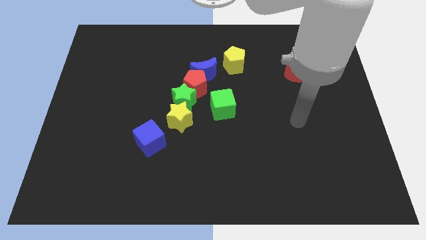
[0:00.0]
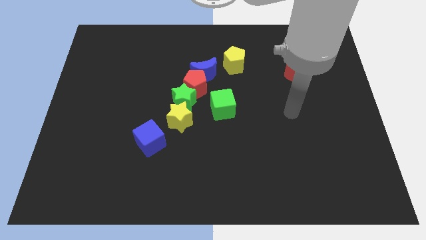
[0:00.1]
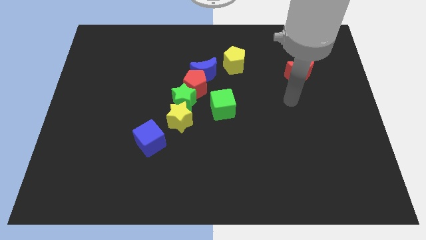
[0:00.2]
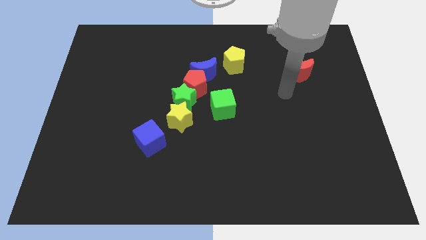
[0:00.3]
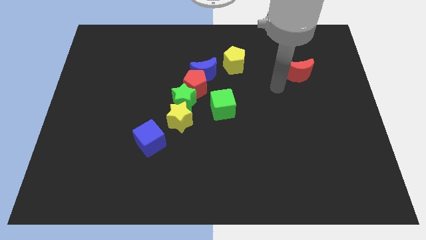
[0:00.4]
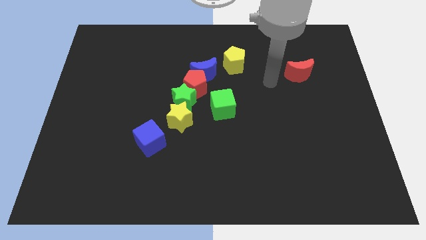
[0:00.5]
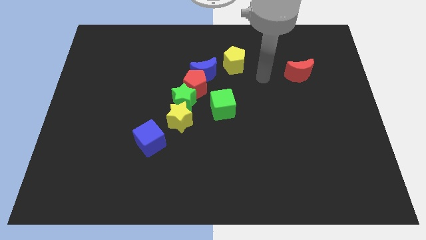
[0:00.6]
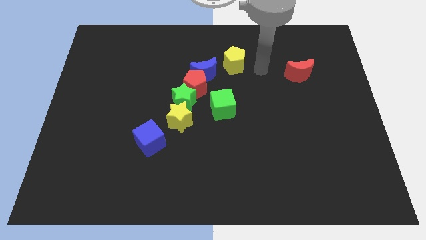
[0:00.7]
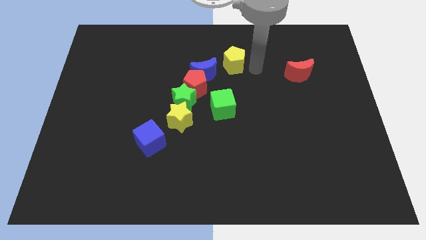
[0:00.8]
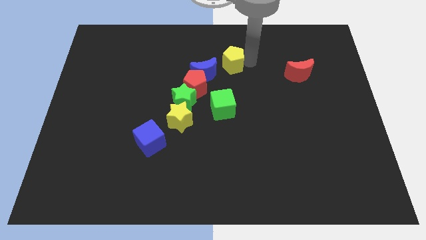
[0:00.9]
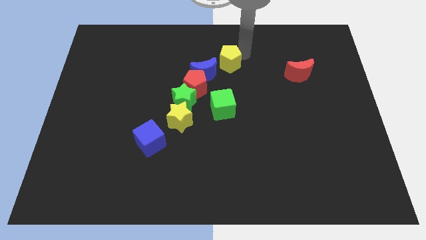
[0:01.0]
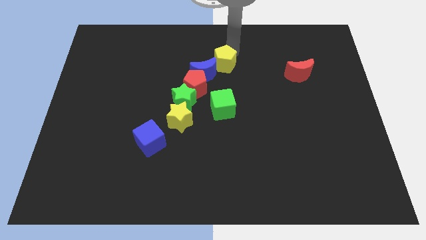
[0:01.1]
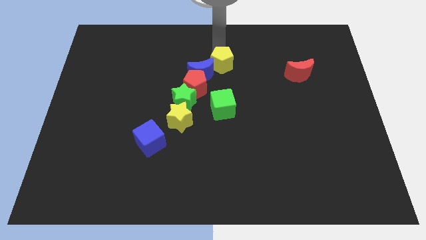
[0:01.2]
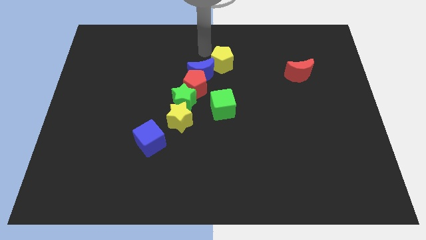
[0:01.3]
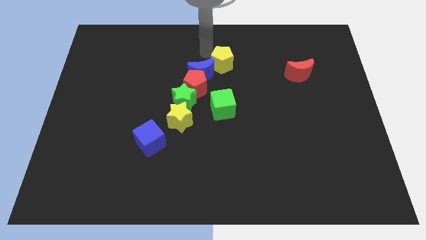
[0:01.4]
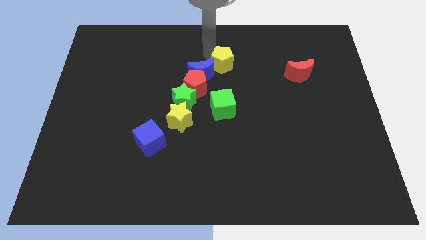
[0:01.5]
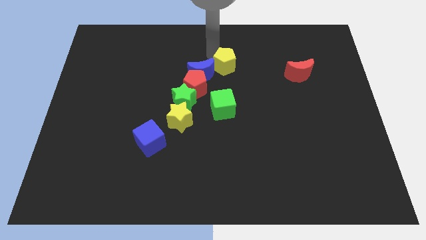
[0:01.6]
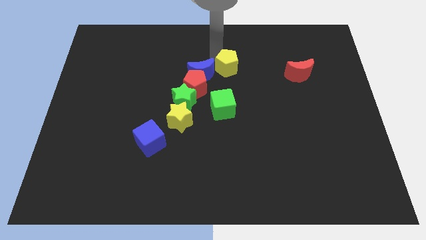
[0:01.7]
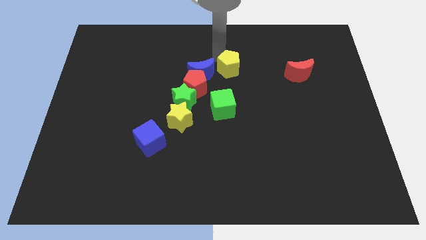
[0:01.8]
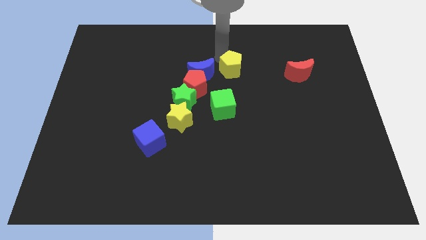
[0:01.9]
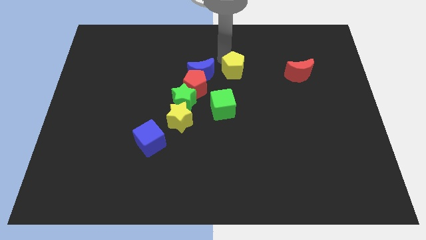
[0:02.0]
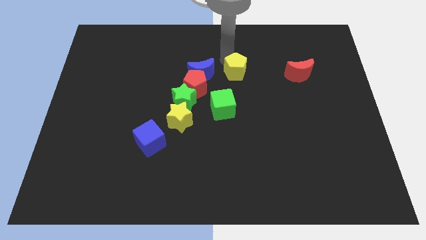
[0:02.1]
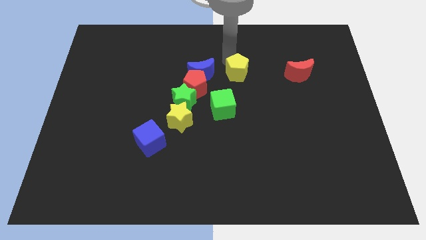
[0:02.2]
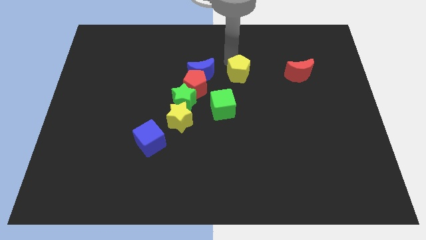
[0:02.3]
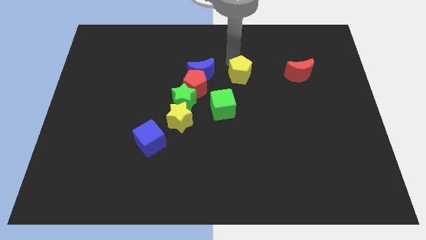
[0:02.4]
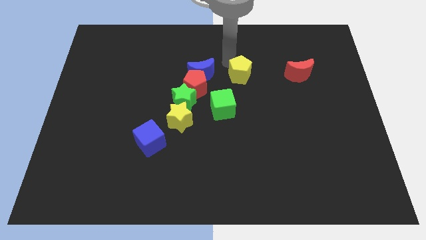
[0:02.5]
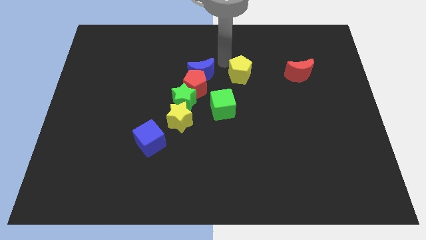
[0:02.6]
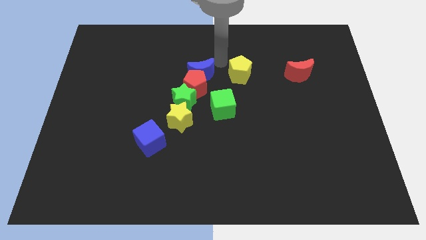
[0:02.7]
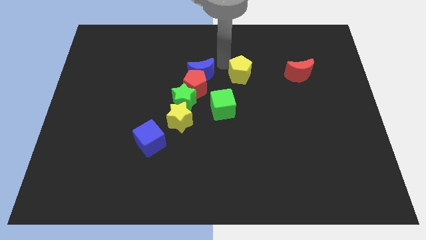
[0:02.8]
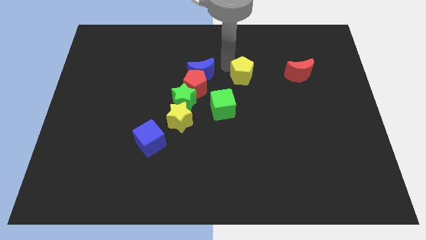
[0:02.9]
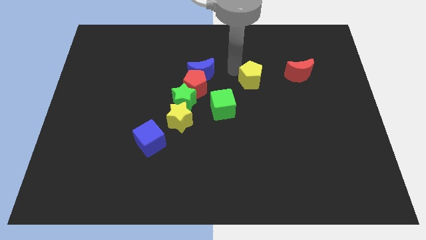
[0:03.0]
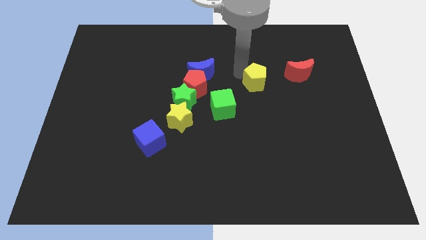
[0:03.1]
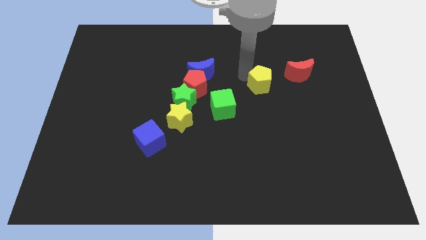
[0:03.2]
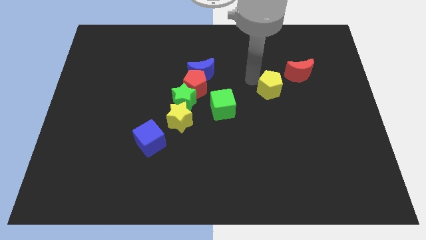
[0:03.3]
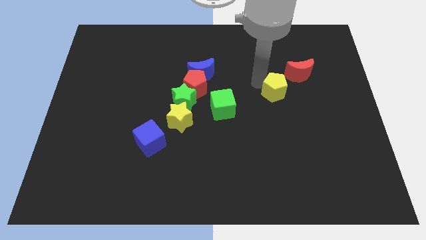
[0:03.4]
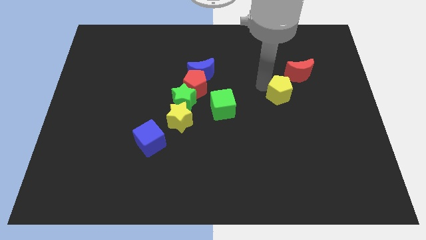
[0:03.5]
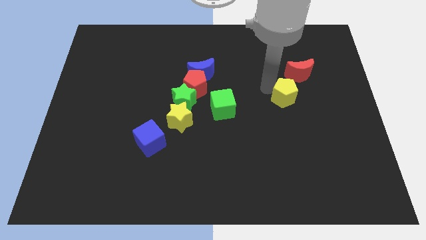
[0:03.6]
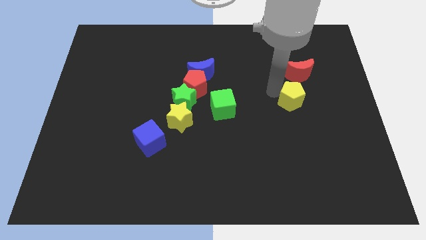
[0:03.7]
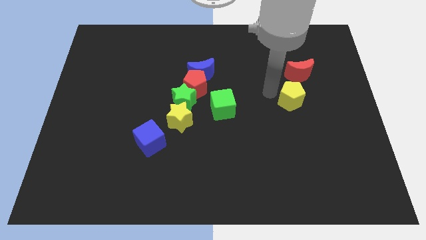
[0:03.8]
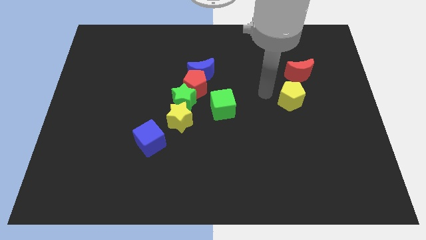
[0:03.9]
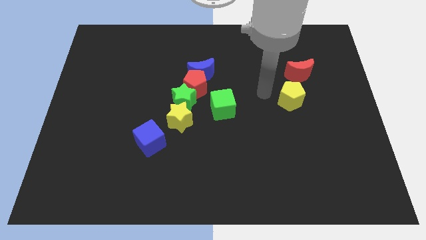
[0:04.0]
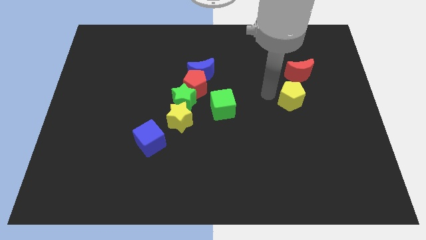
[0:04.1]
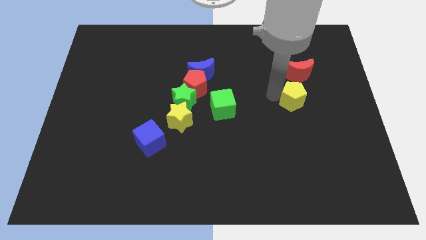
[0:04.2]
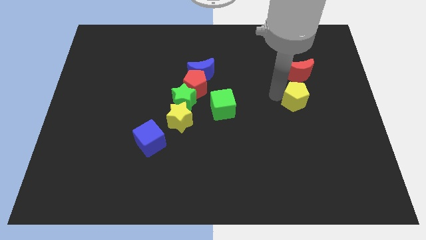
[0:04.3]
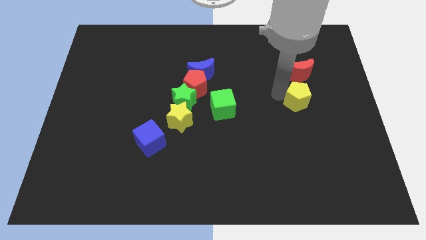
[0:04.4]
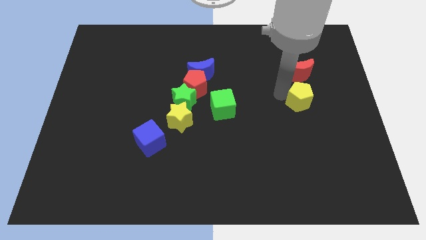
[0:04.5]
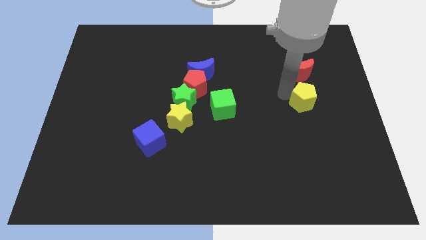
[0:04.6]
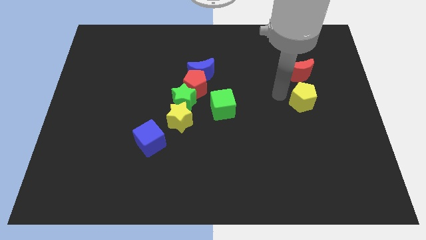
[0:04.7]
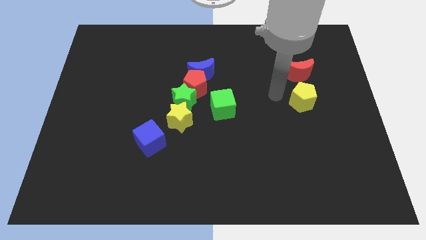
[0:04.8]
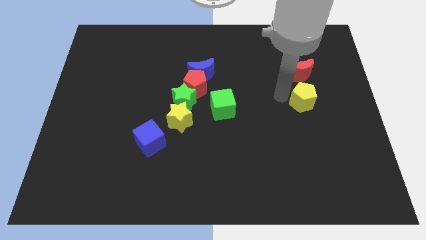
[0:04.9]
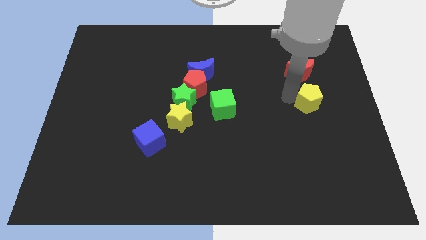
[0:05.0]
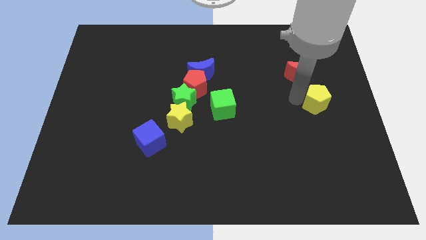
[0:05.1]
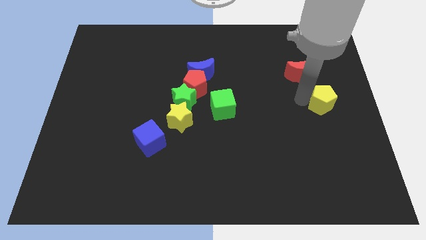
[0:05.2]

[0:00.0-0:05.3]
move the yellow pentagon to the center right

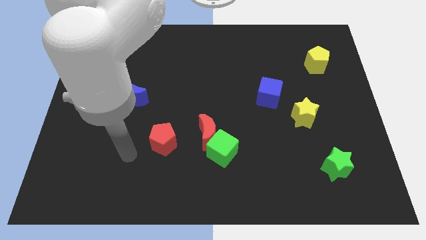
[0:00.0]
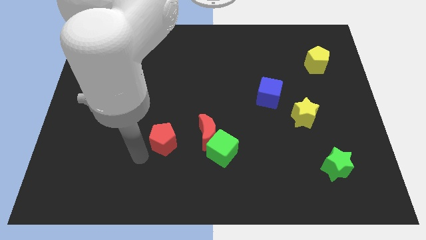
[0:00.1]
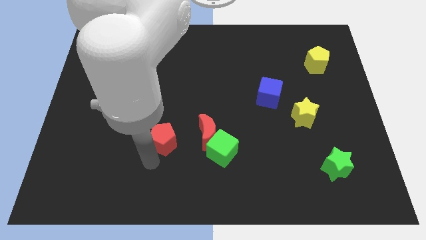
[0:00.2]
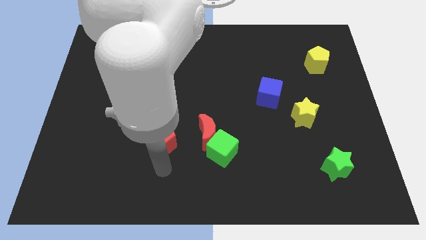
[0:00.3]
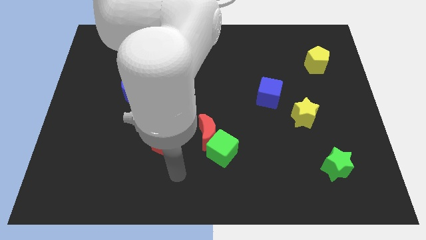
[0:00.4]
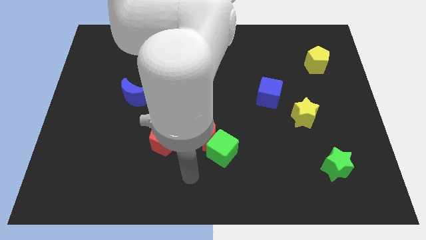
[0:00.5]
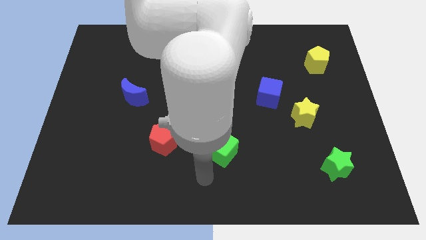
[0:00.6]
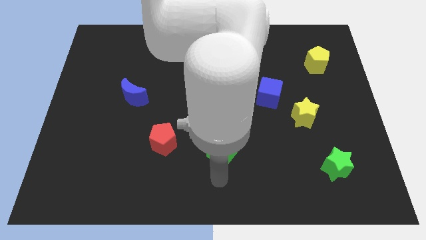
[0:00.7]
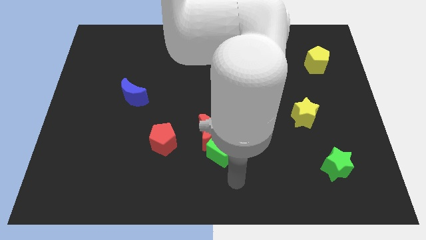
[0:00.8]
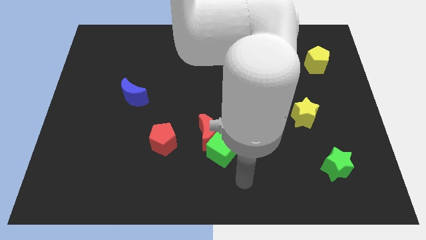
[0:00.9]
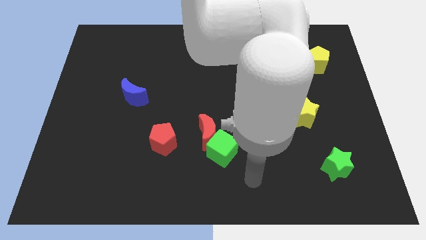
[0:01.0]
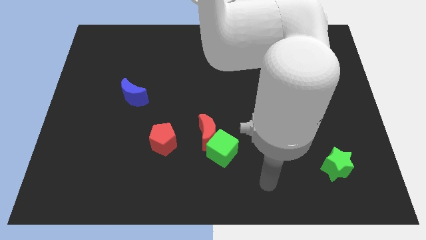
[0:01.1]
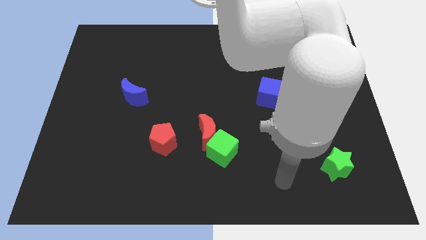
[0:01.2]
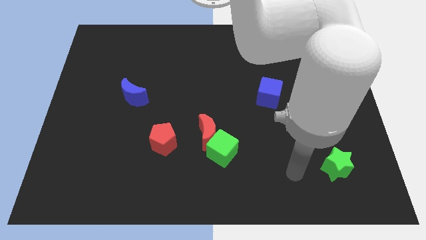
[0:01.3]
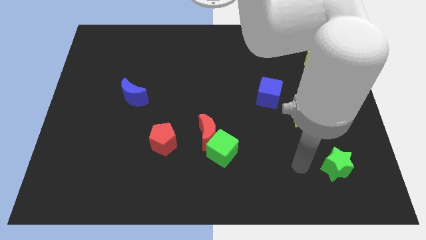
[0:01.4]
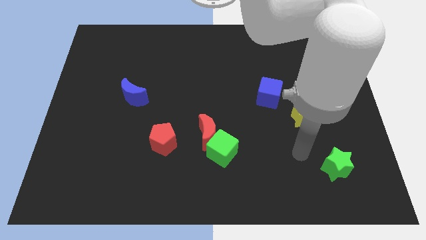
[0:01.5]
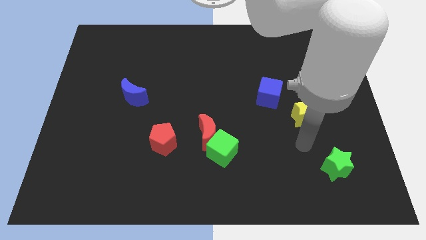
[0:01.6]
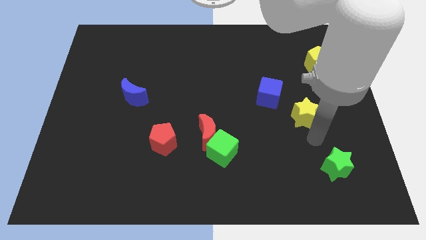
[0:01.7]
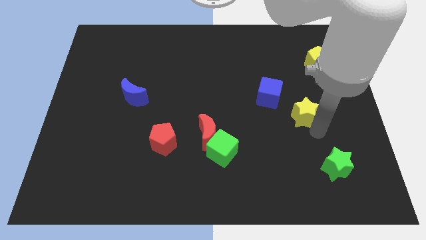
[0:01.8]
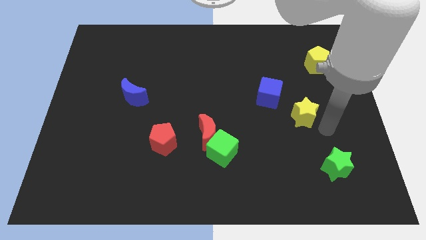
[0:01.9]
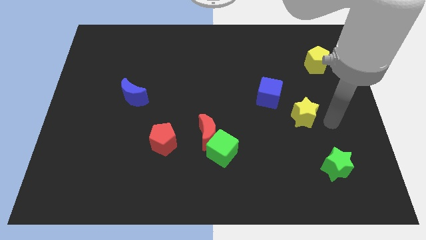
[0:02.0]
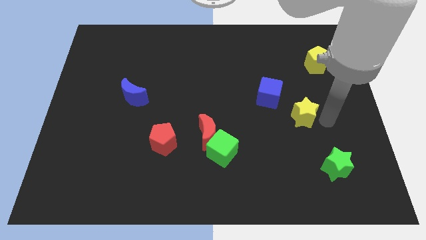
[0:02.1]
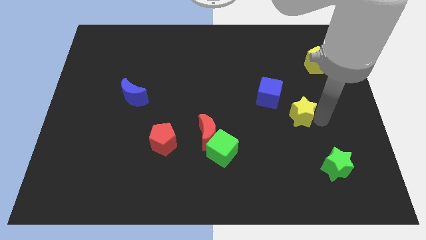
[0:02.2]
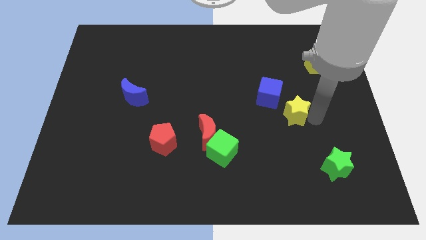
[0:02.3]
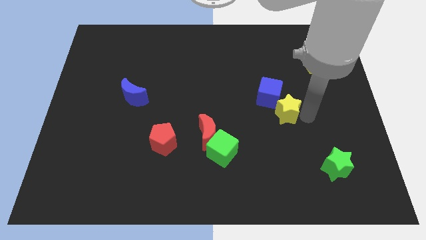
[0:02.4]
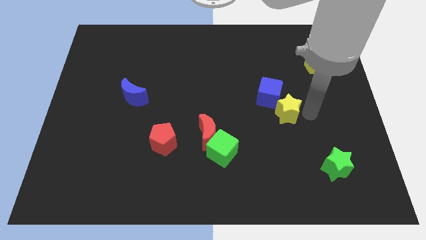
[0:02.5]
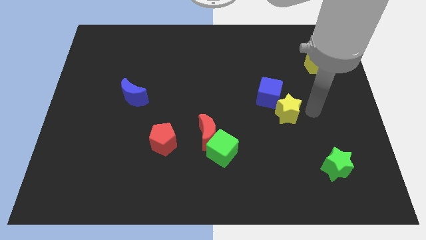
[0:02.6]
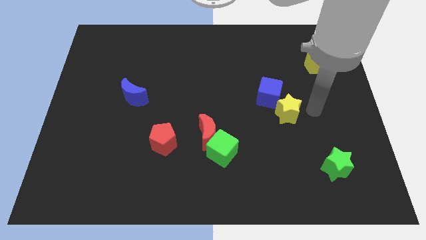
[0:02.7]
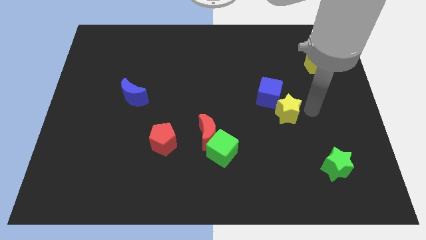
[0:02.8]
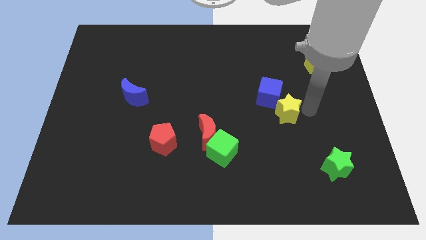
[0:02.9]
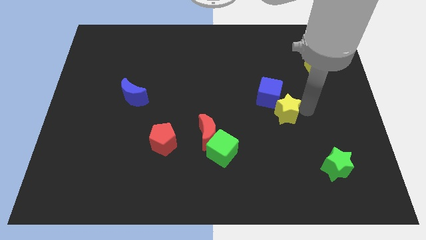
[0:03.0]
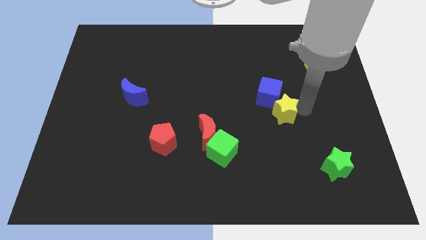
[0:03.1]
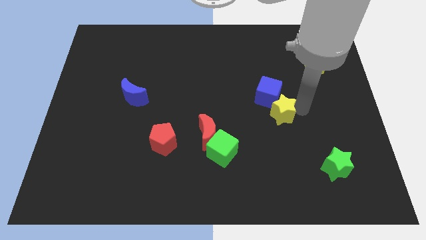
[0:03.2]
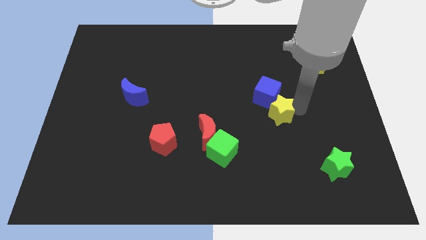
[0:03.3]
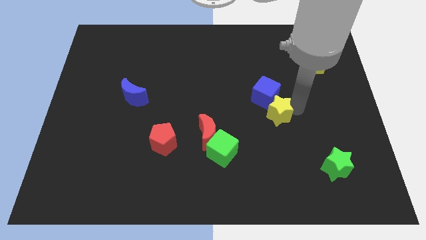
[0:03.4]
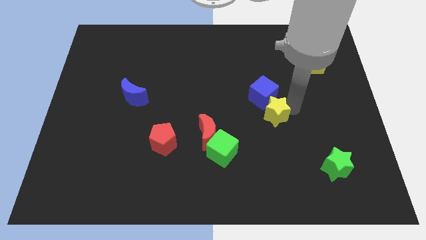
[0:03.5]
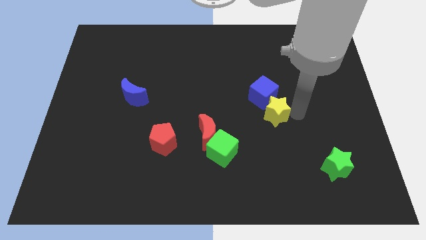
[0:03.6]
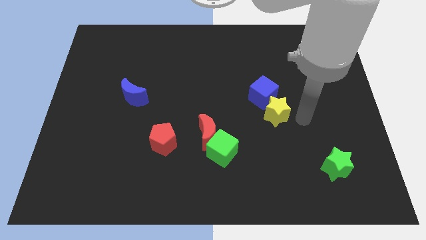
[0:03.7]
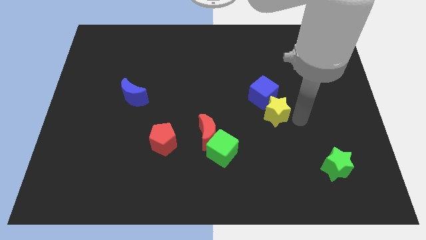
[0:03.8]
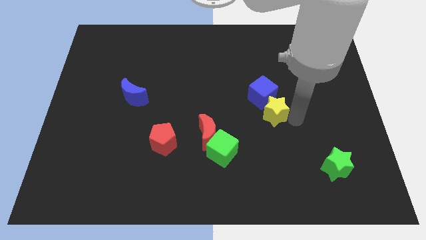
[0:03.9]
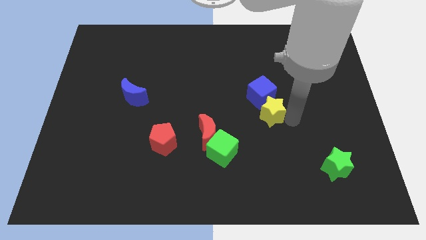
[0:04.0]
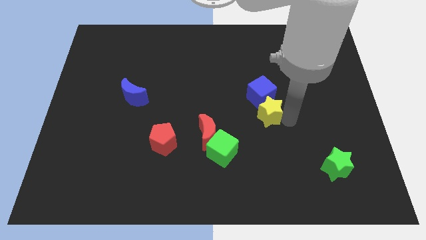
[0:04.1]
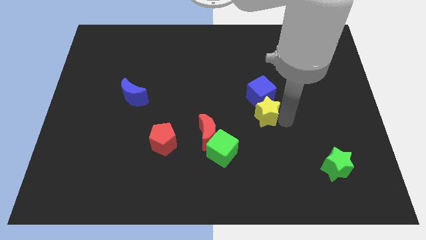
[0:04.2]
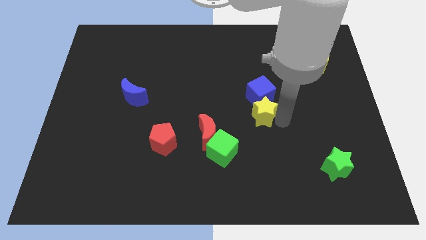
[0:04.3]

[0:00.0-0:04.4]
move the yellow star to the middle
